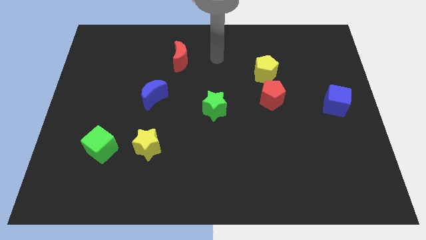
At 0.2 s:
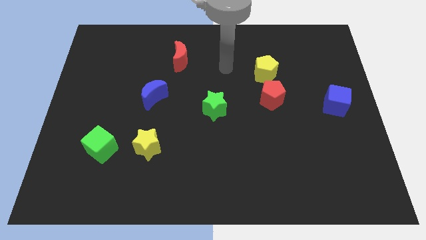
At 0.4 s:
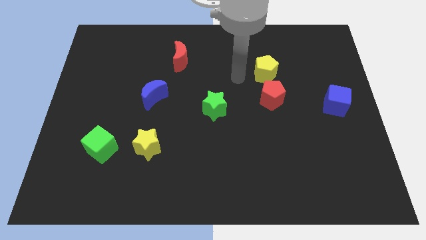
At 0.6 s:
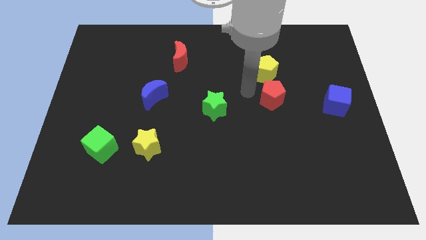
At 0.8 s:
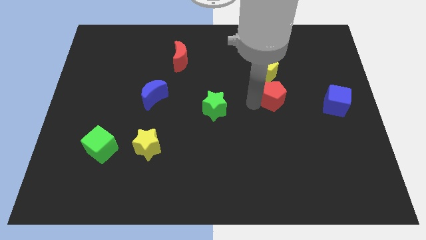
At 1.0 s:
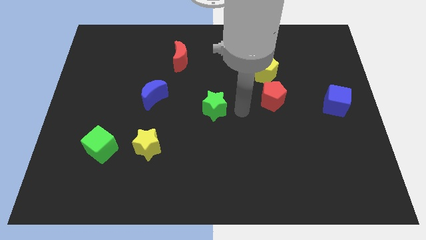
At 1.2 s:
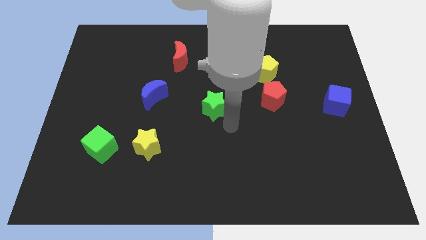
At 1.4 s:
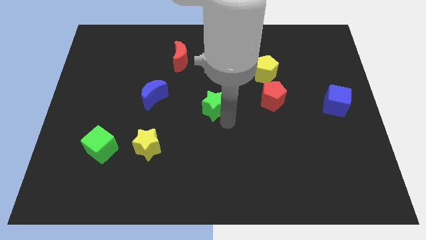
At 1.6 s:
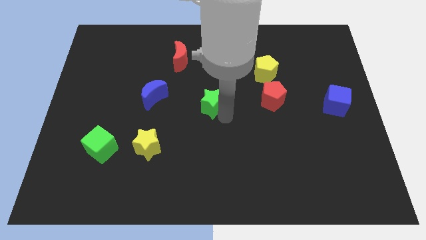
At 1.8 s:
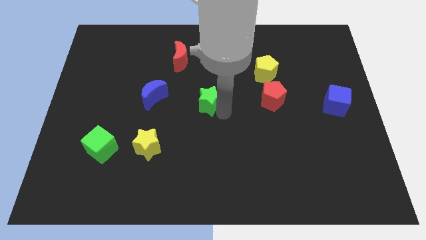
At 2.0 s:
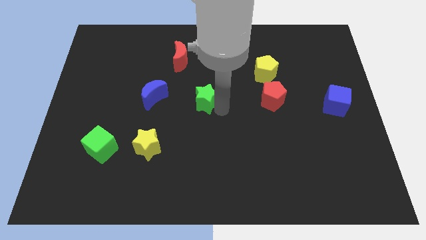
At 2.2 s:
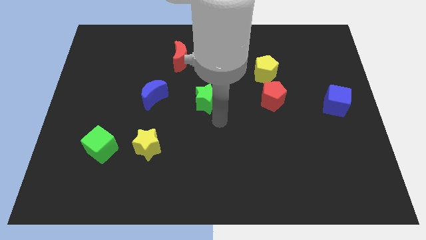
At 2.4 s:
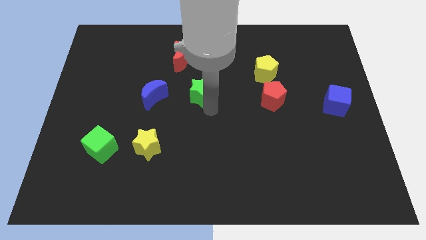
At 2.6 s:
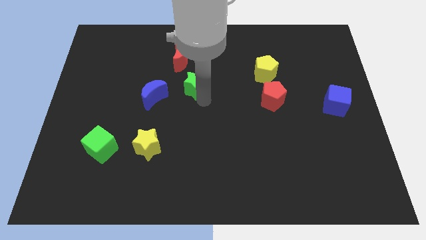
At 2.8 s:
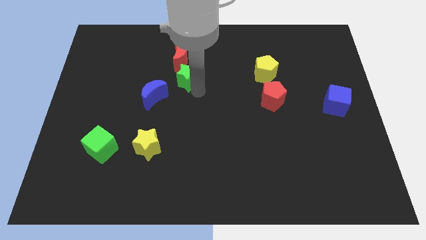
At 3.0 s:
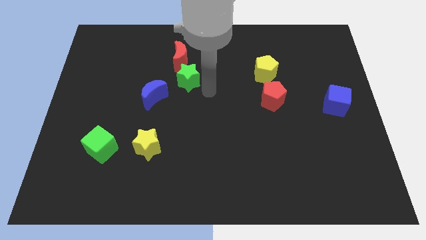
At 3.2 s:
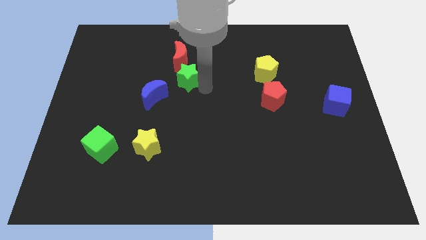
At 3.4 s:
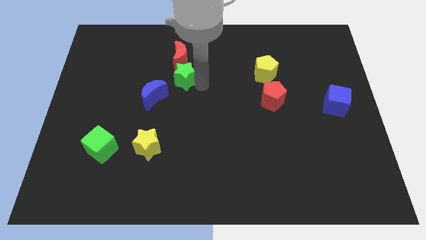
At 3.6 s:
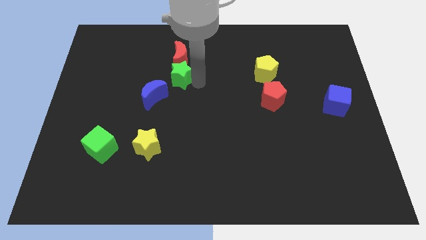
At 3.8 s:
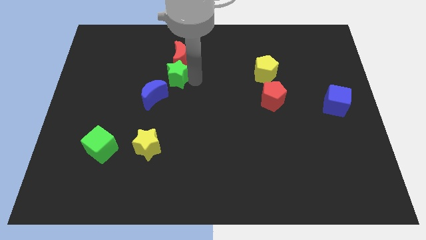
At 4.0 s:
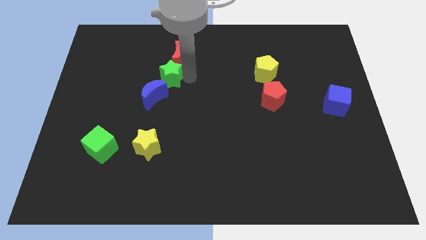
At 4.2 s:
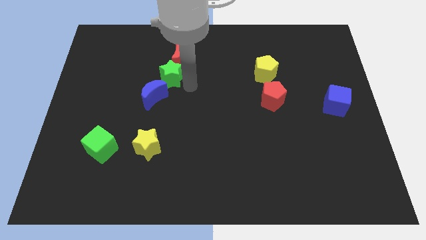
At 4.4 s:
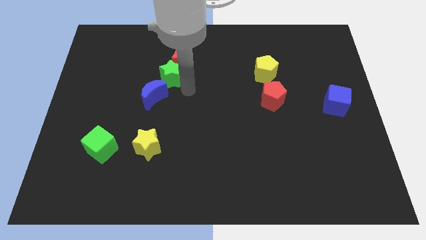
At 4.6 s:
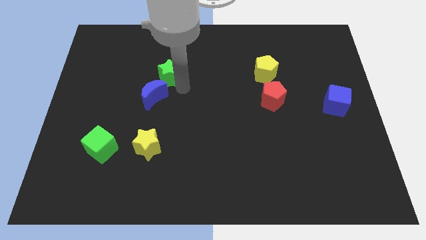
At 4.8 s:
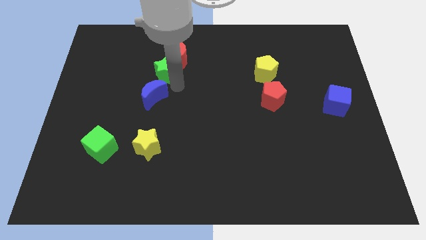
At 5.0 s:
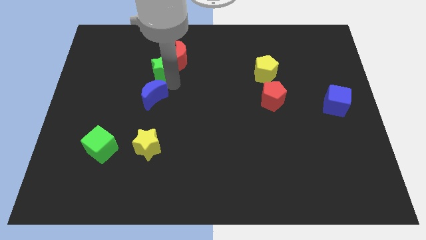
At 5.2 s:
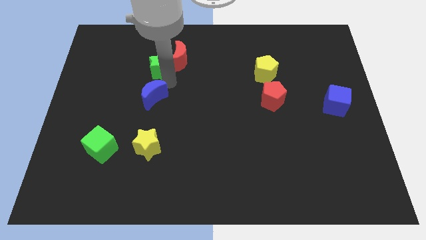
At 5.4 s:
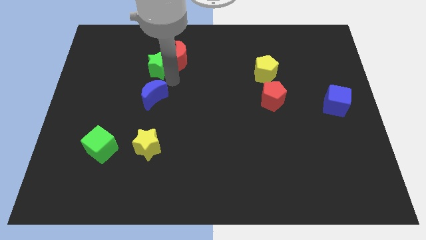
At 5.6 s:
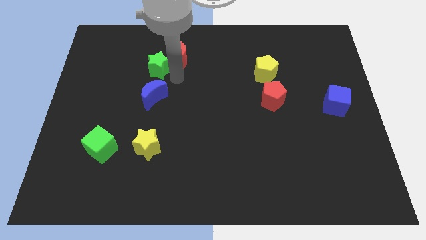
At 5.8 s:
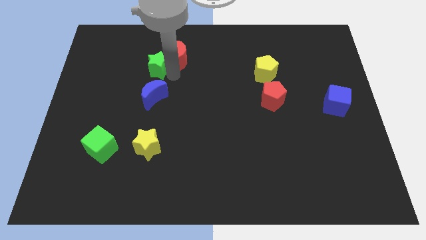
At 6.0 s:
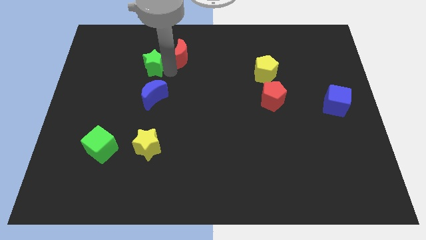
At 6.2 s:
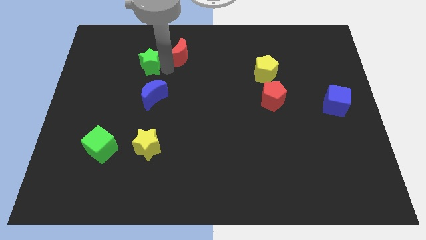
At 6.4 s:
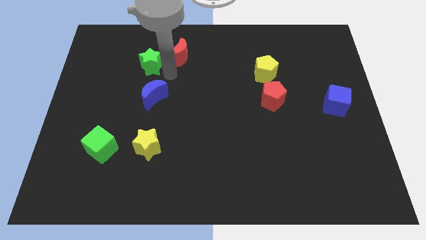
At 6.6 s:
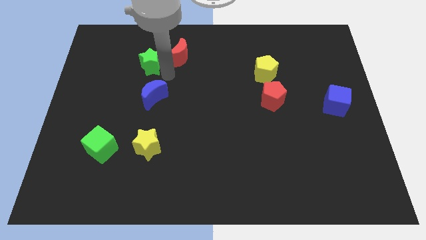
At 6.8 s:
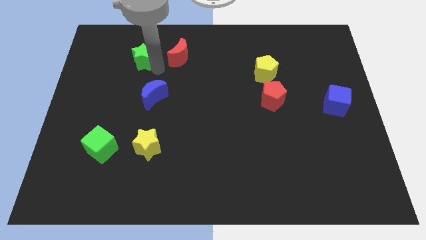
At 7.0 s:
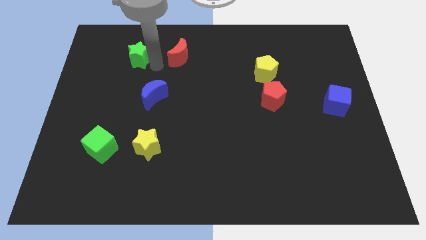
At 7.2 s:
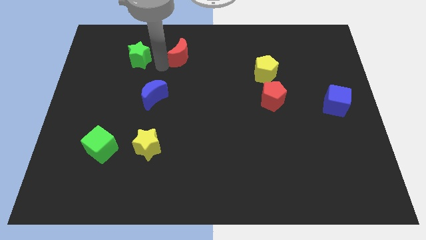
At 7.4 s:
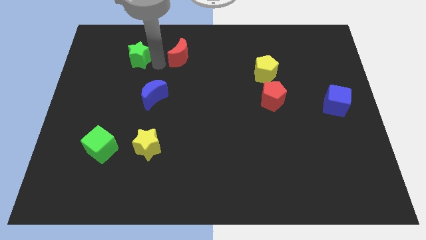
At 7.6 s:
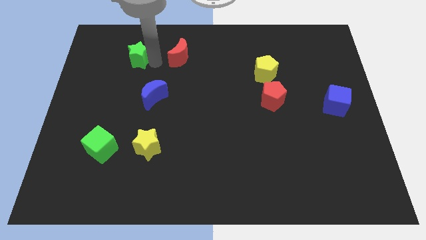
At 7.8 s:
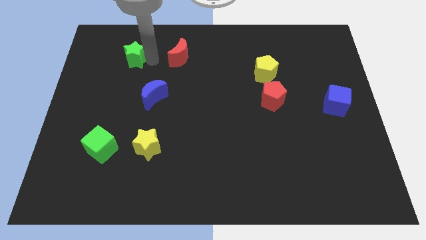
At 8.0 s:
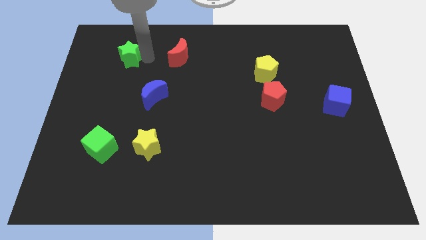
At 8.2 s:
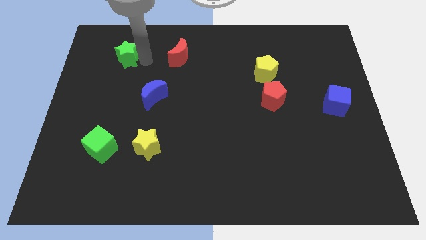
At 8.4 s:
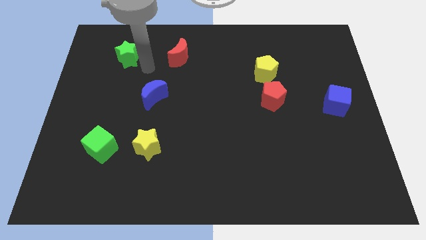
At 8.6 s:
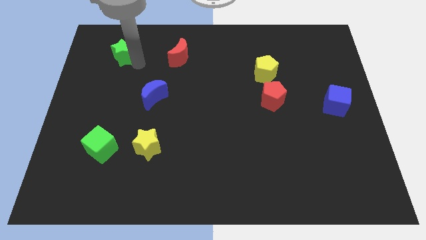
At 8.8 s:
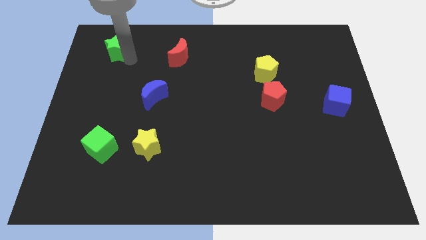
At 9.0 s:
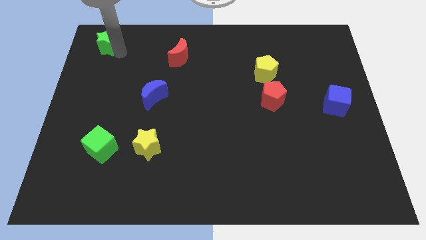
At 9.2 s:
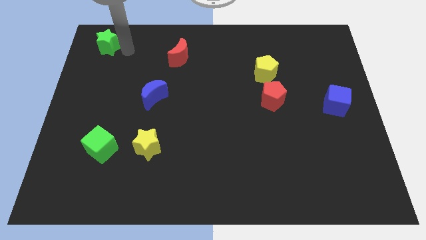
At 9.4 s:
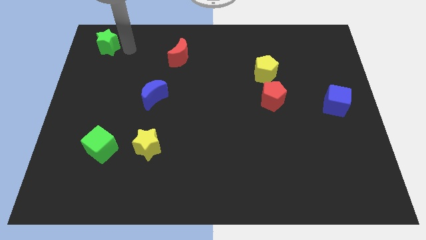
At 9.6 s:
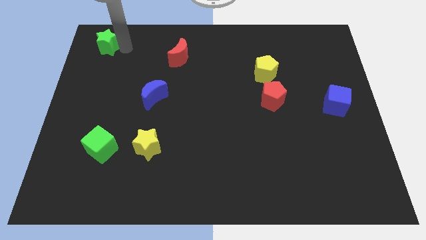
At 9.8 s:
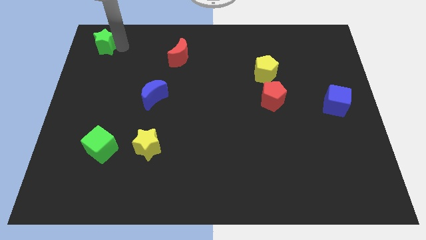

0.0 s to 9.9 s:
push the green star to the top left

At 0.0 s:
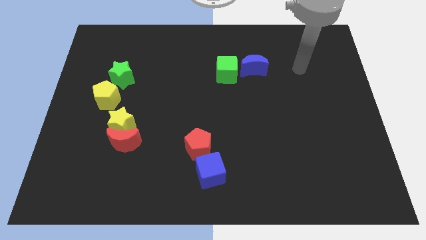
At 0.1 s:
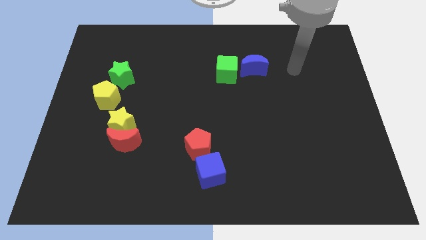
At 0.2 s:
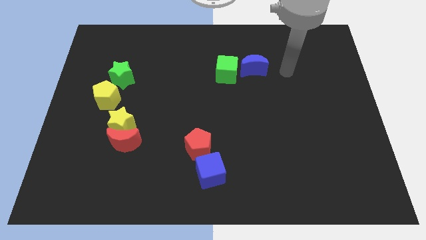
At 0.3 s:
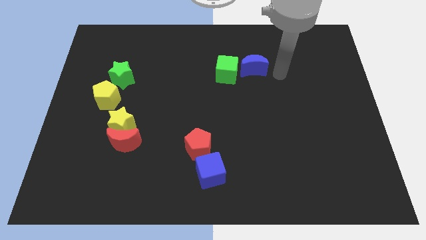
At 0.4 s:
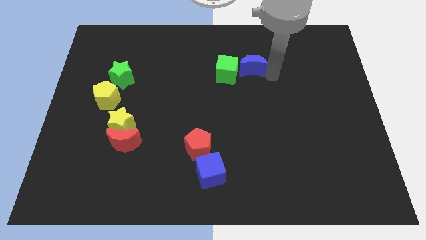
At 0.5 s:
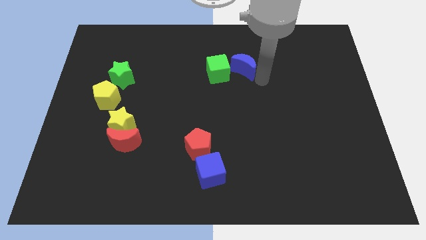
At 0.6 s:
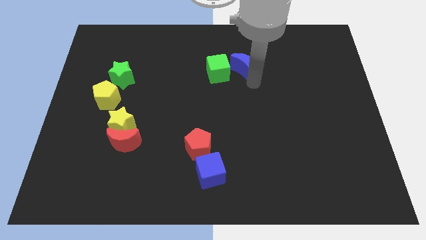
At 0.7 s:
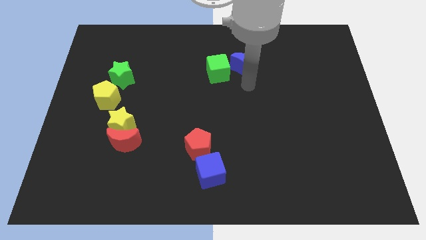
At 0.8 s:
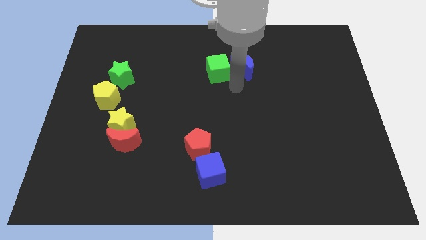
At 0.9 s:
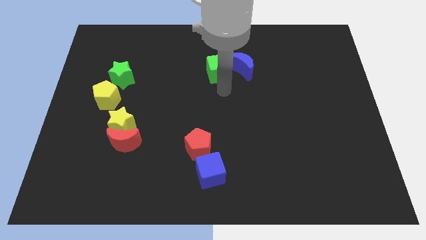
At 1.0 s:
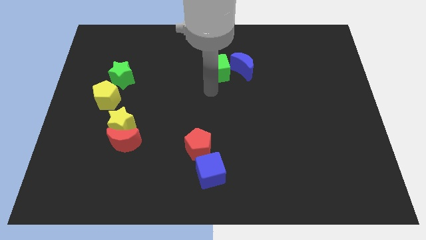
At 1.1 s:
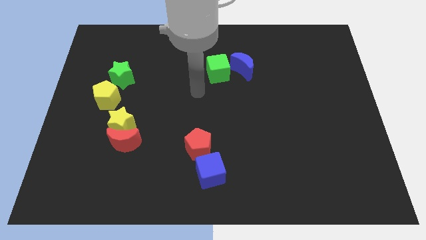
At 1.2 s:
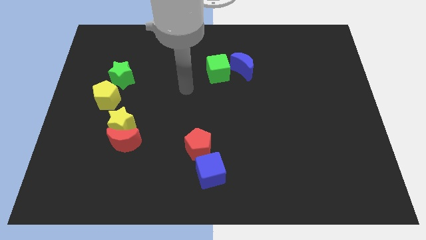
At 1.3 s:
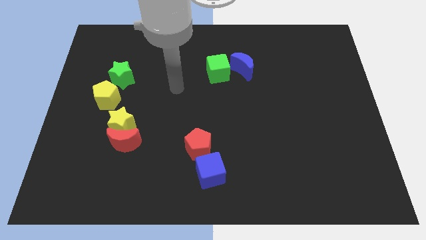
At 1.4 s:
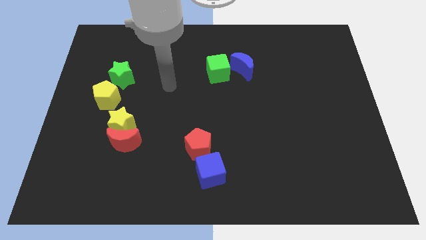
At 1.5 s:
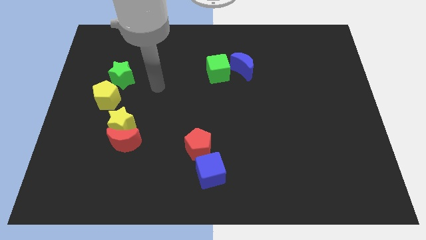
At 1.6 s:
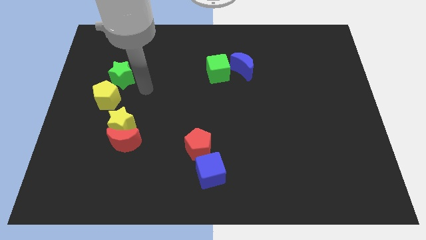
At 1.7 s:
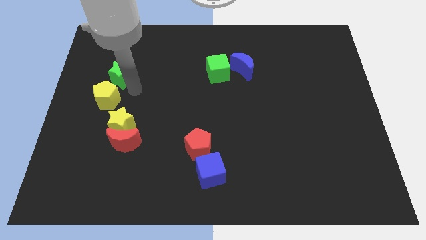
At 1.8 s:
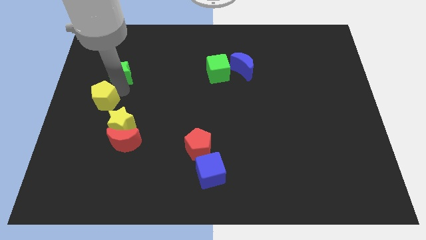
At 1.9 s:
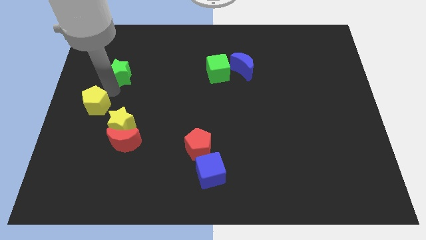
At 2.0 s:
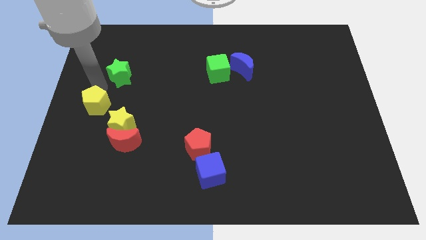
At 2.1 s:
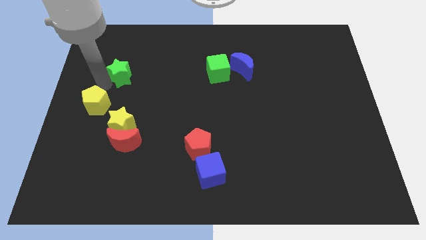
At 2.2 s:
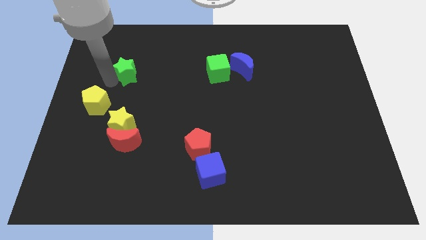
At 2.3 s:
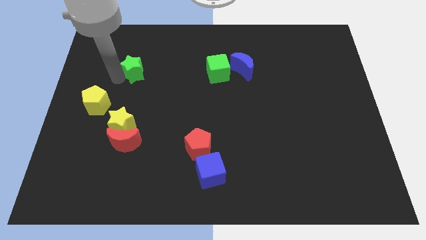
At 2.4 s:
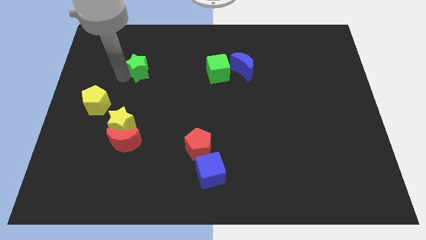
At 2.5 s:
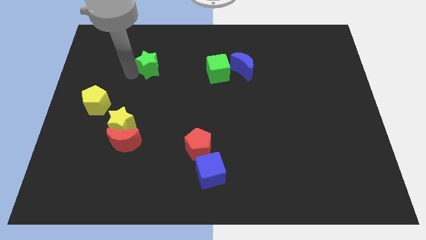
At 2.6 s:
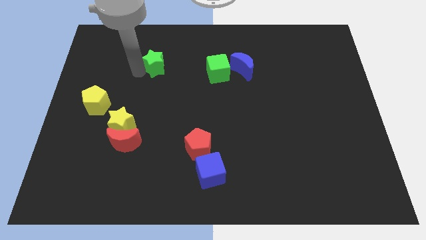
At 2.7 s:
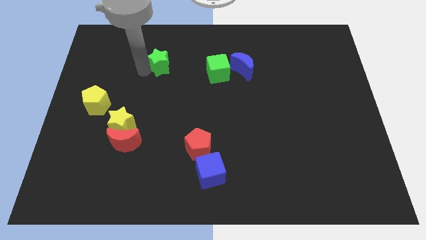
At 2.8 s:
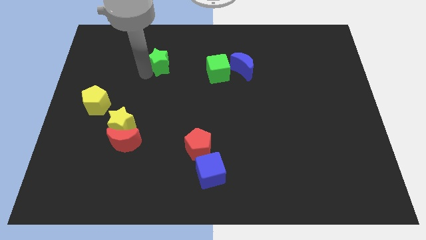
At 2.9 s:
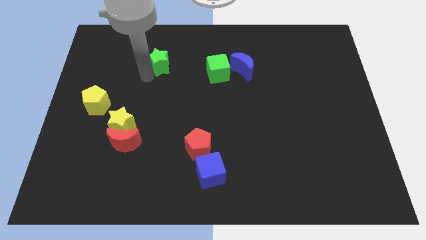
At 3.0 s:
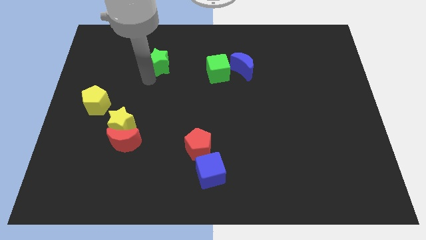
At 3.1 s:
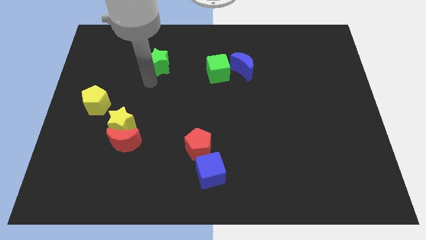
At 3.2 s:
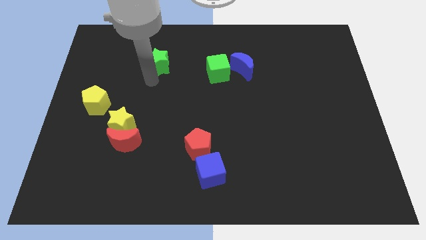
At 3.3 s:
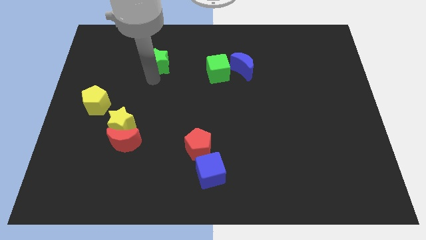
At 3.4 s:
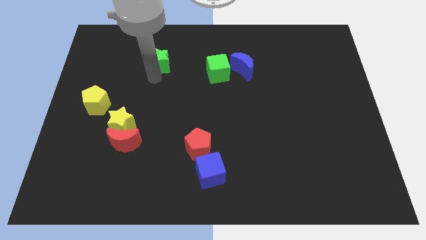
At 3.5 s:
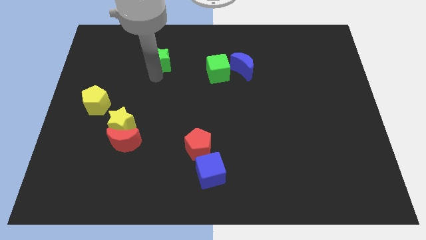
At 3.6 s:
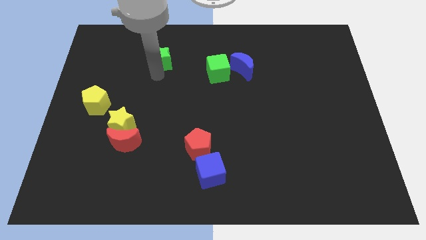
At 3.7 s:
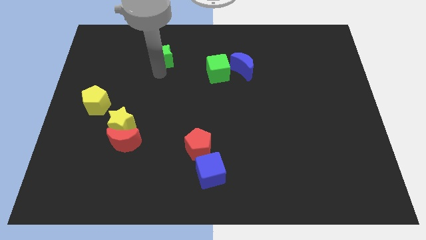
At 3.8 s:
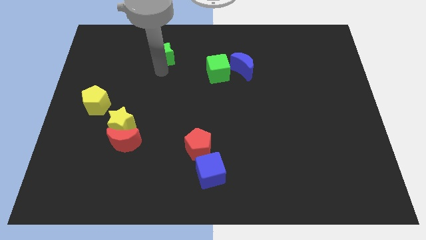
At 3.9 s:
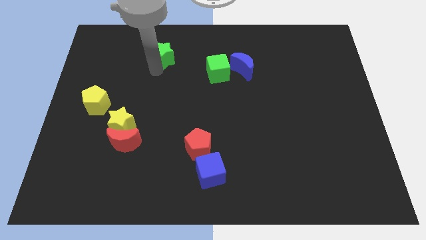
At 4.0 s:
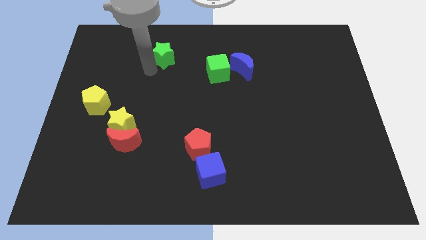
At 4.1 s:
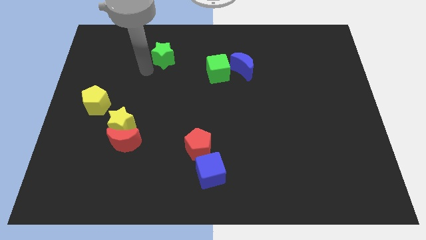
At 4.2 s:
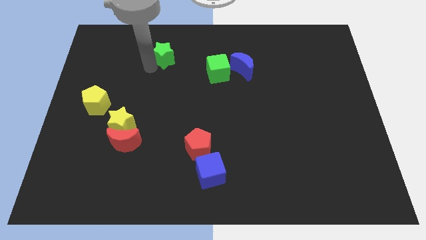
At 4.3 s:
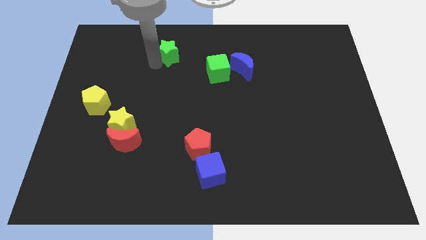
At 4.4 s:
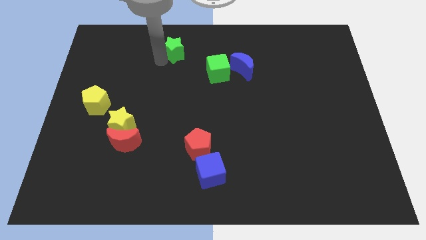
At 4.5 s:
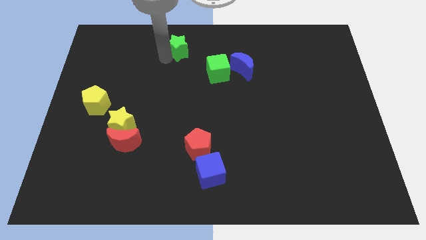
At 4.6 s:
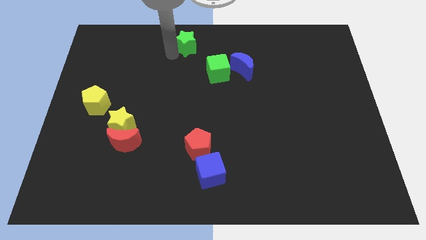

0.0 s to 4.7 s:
move the green star to the towards your base
